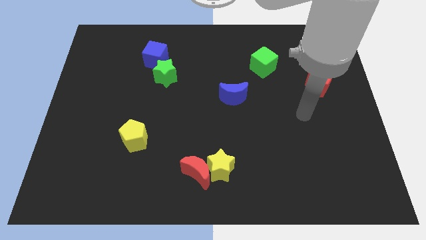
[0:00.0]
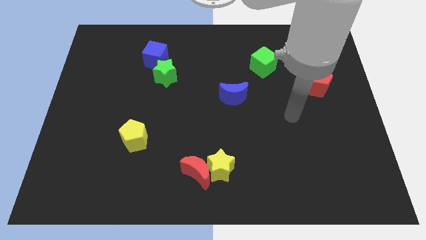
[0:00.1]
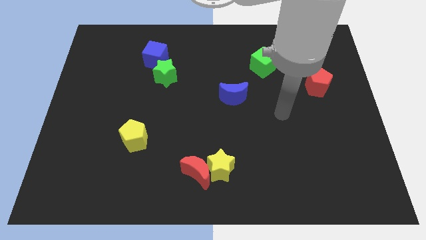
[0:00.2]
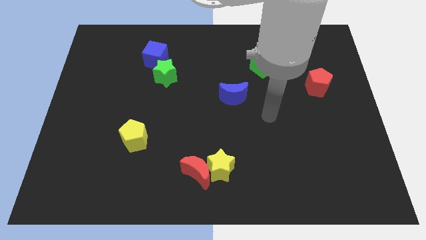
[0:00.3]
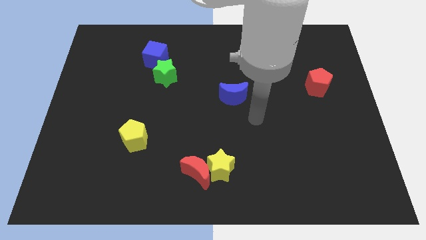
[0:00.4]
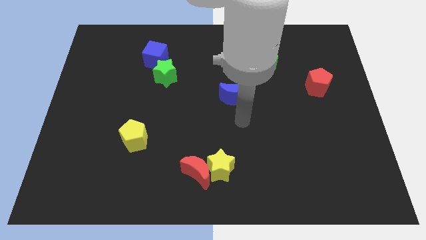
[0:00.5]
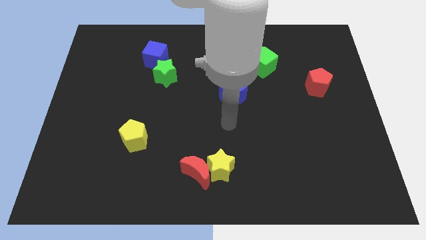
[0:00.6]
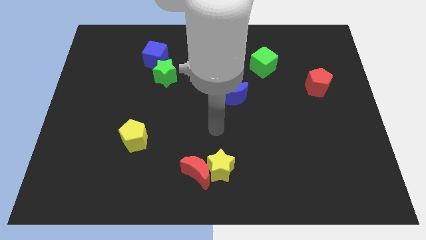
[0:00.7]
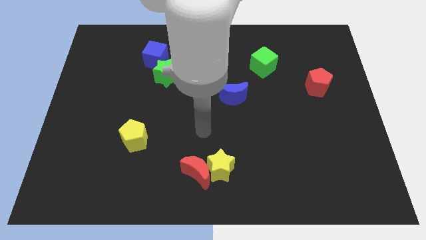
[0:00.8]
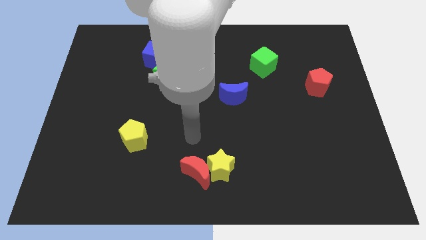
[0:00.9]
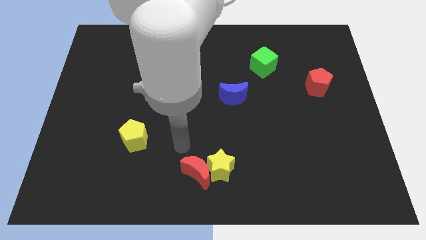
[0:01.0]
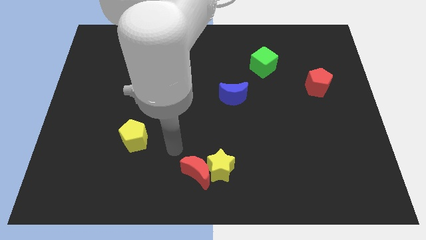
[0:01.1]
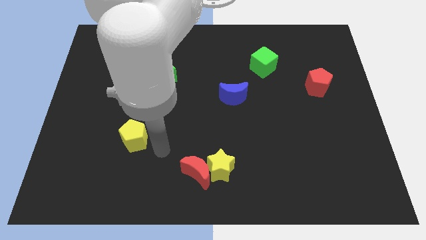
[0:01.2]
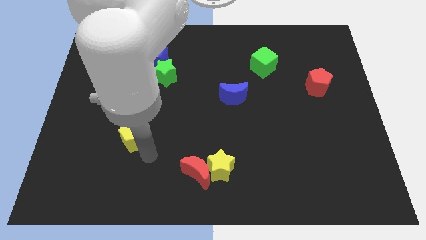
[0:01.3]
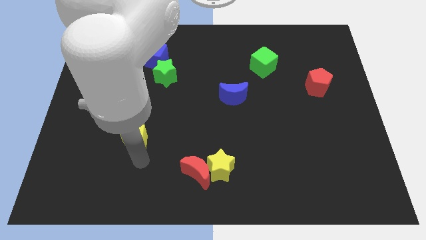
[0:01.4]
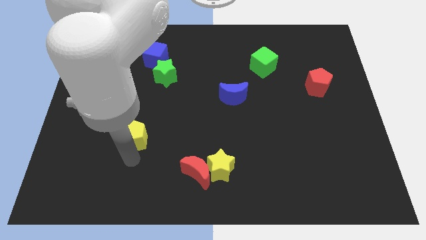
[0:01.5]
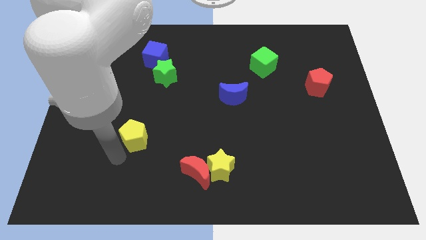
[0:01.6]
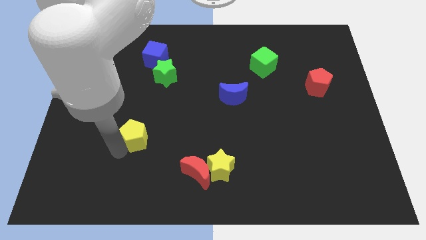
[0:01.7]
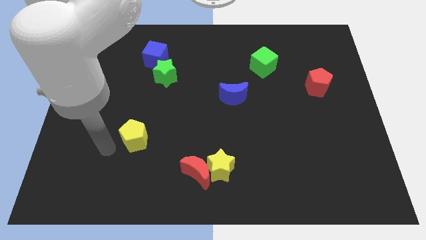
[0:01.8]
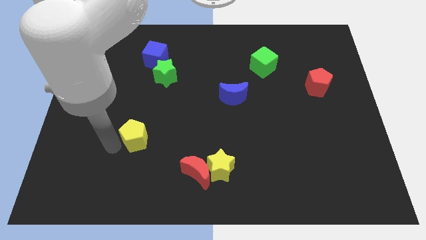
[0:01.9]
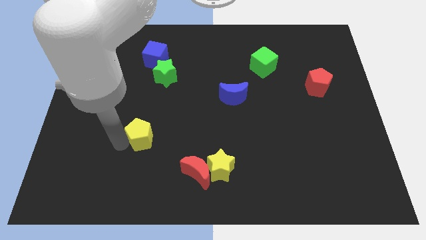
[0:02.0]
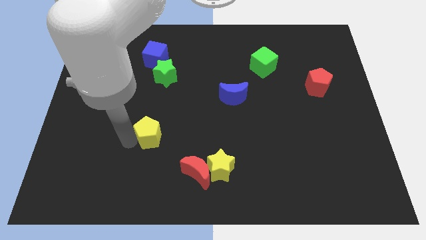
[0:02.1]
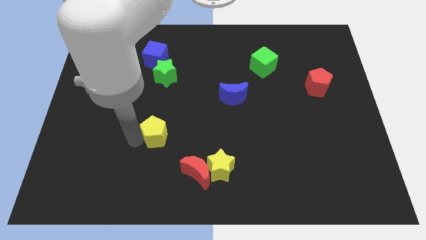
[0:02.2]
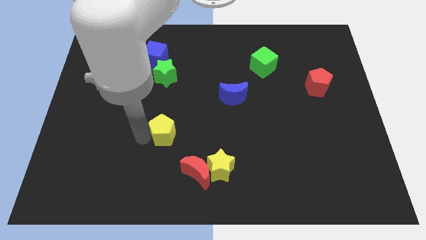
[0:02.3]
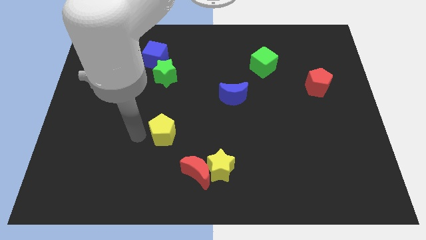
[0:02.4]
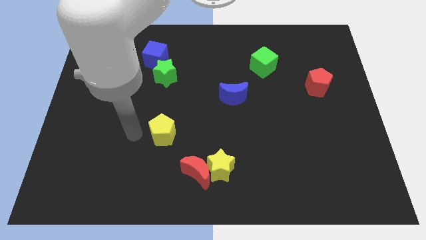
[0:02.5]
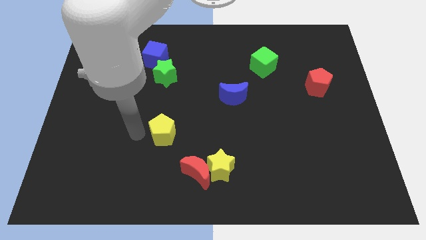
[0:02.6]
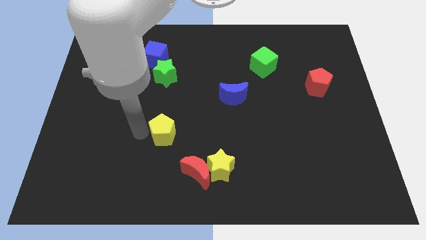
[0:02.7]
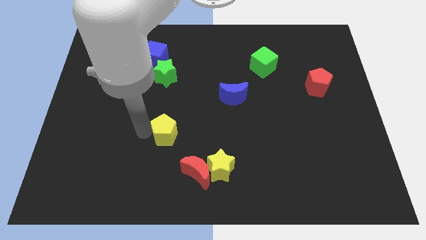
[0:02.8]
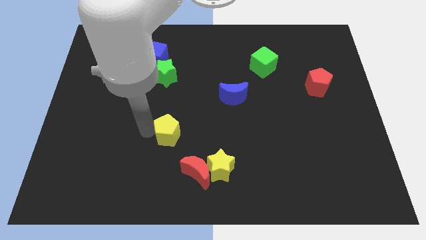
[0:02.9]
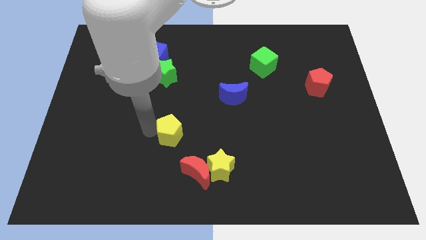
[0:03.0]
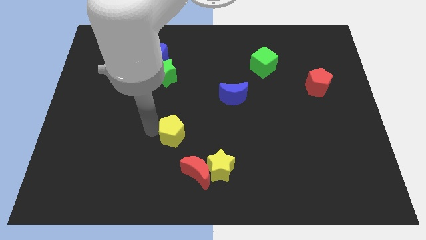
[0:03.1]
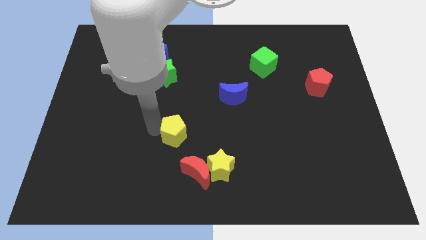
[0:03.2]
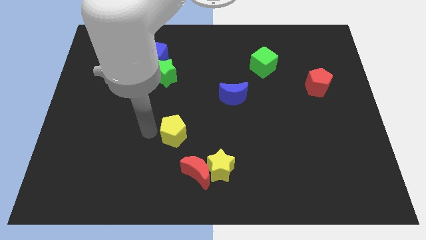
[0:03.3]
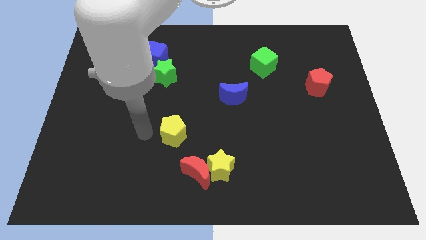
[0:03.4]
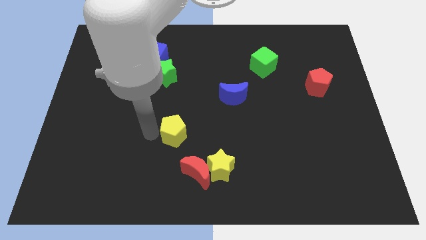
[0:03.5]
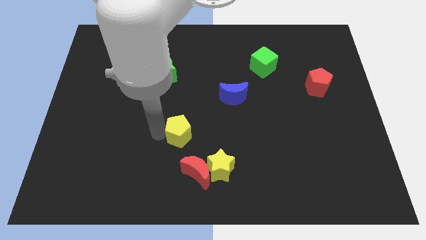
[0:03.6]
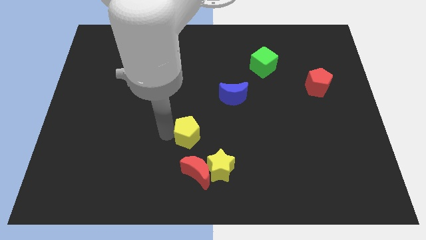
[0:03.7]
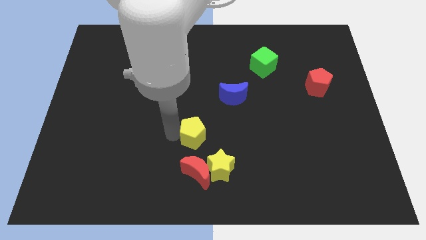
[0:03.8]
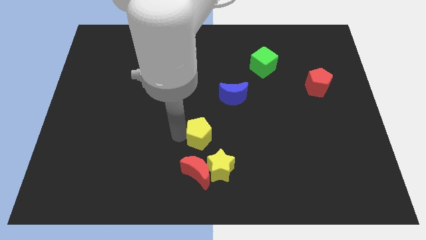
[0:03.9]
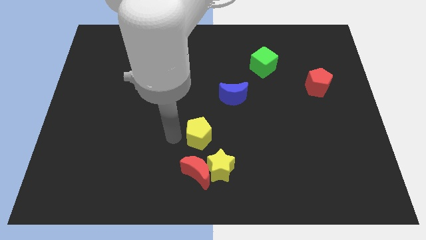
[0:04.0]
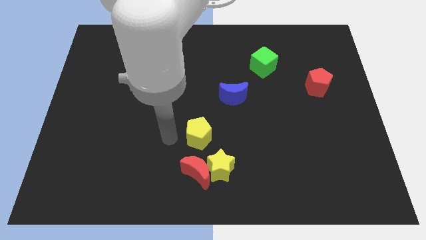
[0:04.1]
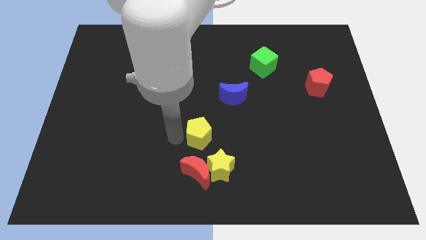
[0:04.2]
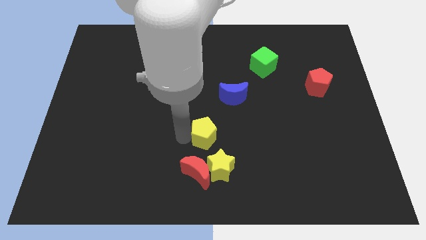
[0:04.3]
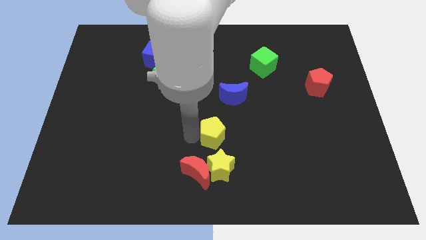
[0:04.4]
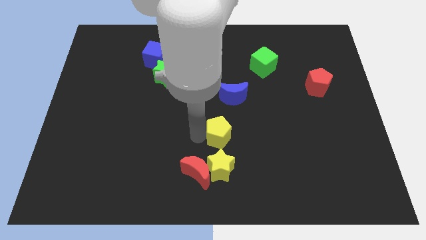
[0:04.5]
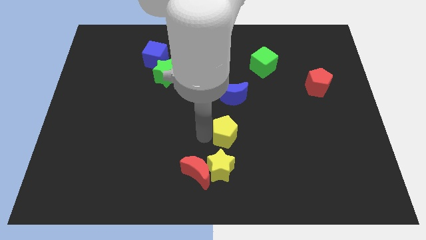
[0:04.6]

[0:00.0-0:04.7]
move the yellow pentagon to the right

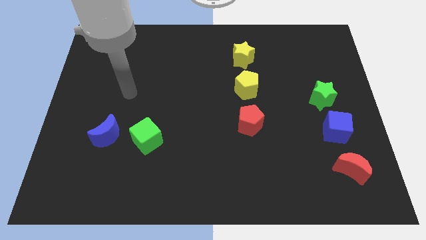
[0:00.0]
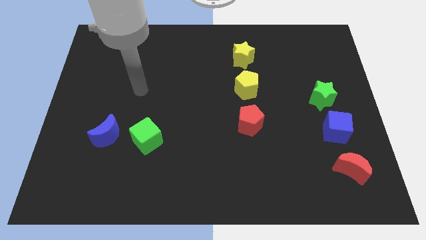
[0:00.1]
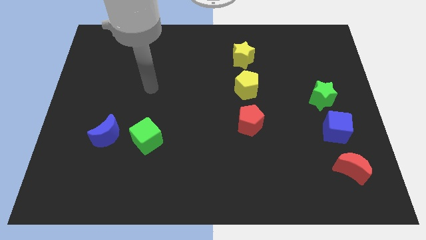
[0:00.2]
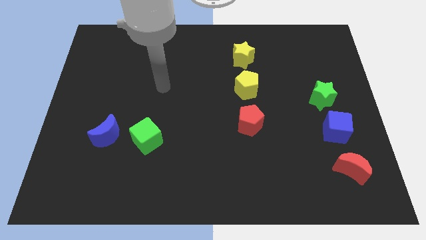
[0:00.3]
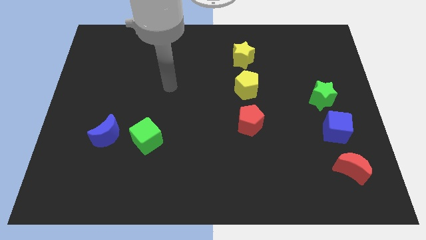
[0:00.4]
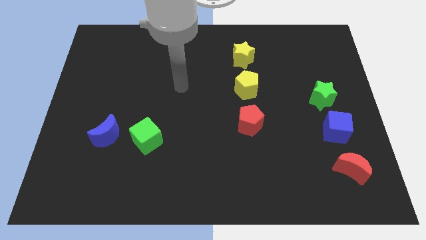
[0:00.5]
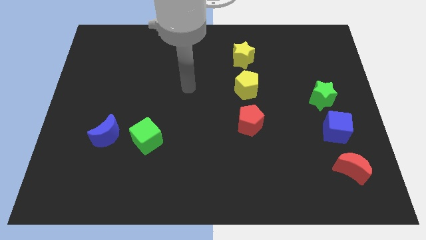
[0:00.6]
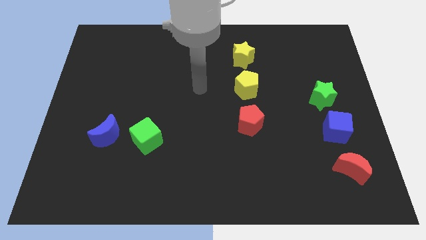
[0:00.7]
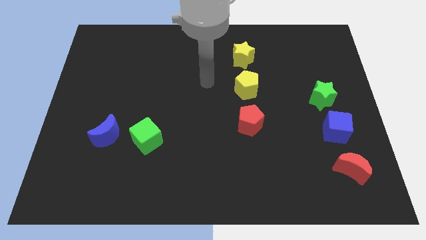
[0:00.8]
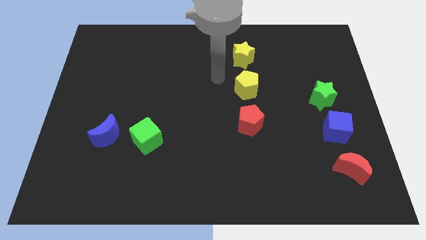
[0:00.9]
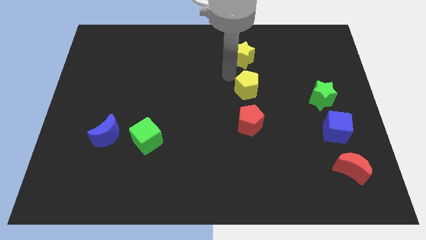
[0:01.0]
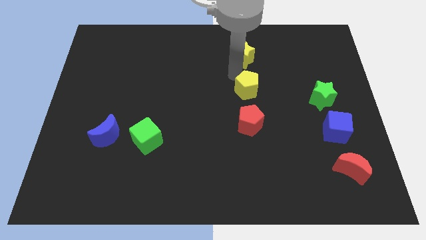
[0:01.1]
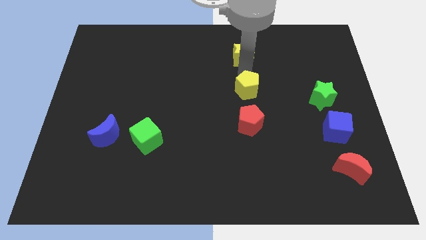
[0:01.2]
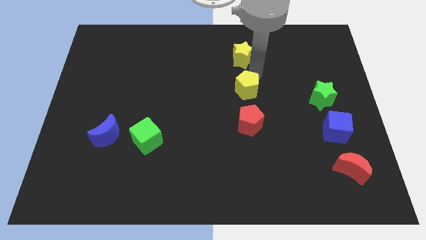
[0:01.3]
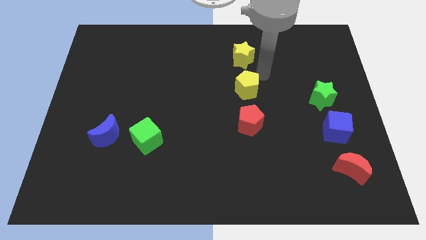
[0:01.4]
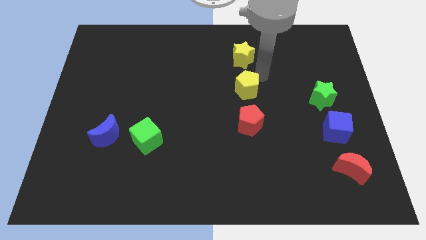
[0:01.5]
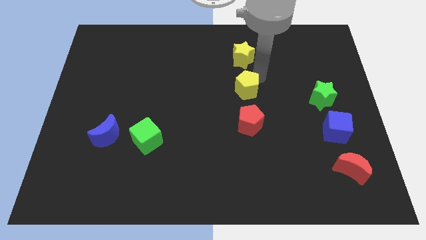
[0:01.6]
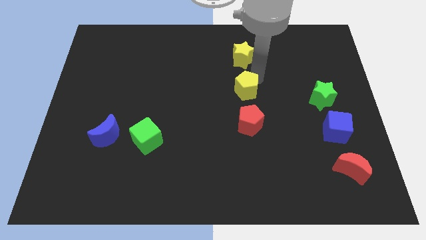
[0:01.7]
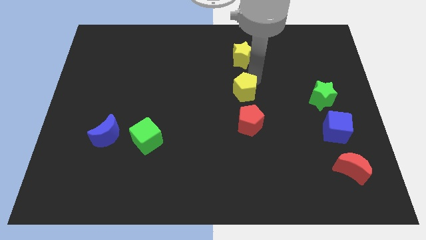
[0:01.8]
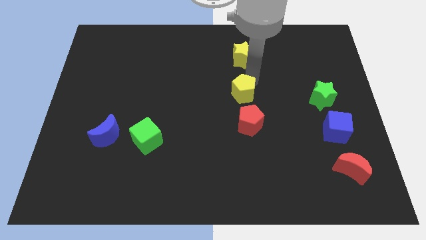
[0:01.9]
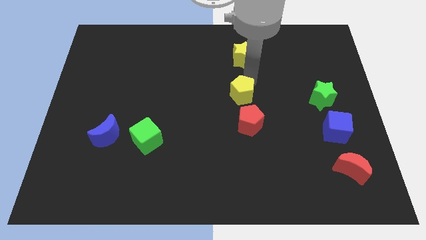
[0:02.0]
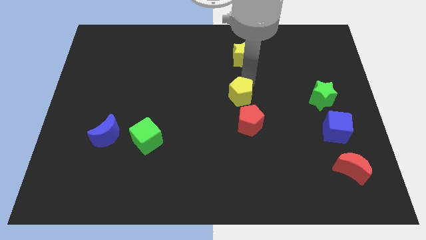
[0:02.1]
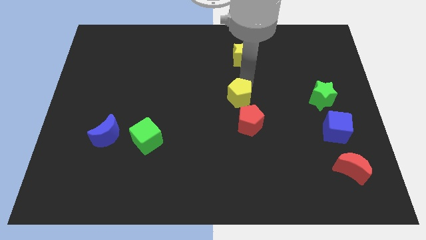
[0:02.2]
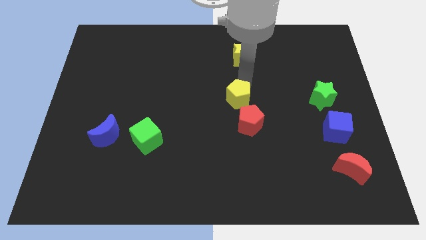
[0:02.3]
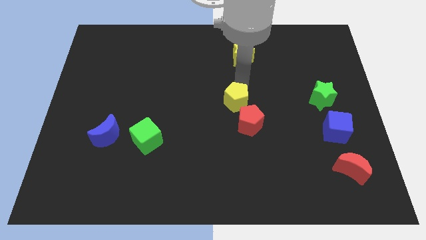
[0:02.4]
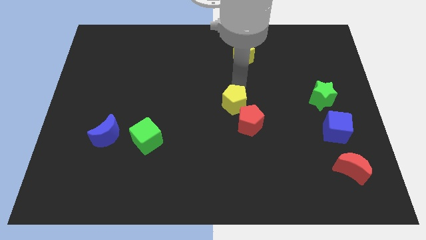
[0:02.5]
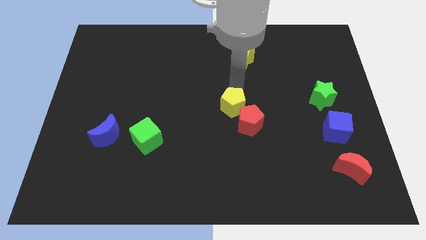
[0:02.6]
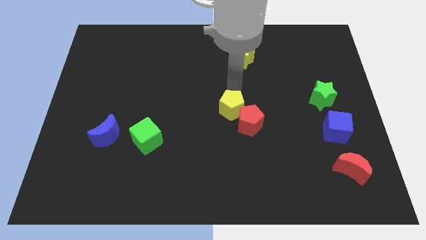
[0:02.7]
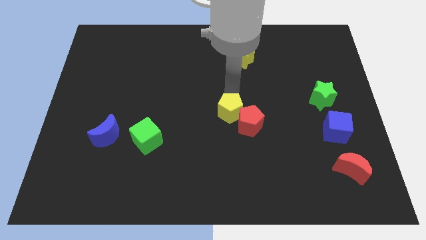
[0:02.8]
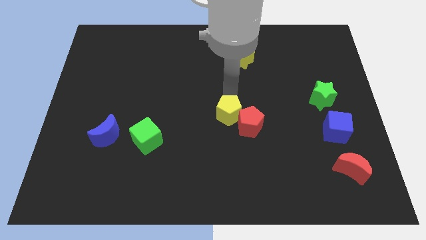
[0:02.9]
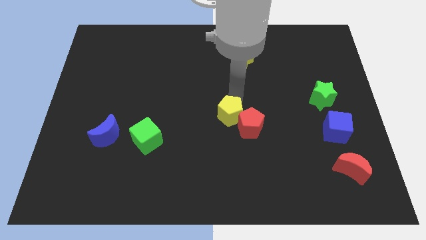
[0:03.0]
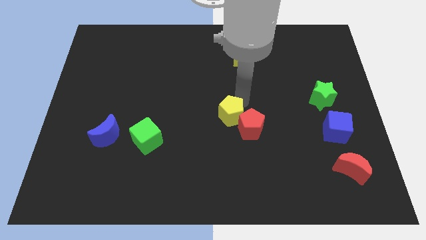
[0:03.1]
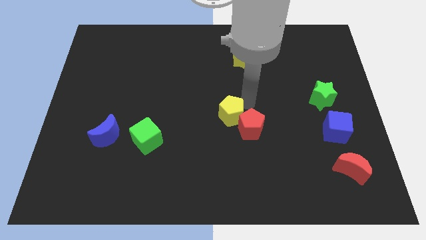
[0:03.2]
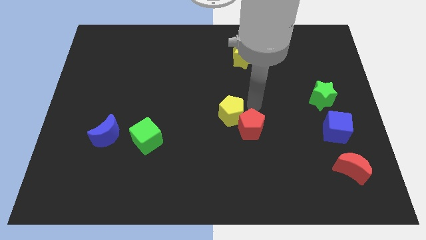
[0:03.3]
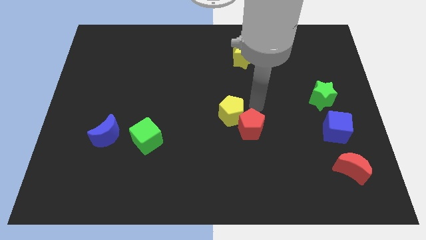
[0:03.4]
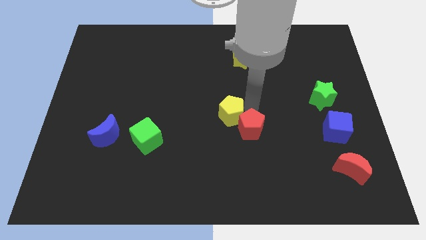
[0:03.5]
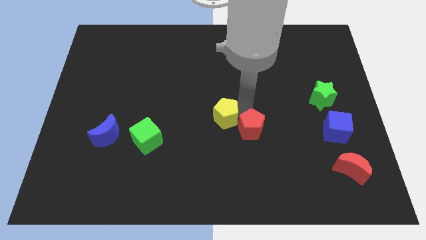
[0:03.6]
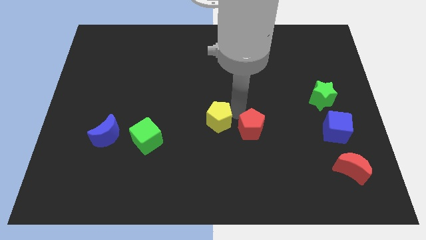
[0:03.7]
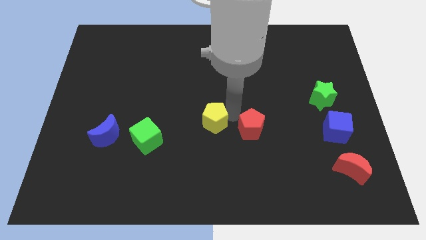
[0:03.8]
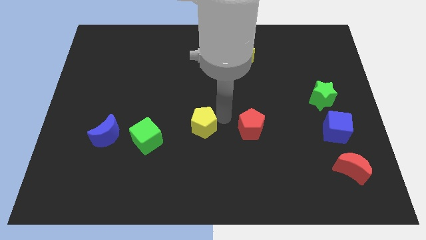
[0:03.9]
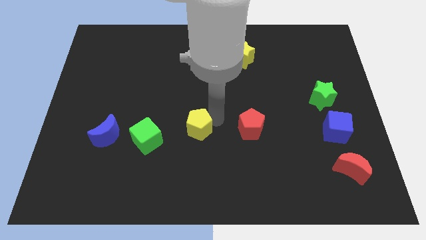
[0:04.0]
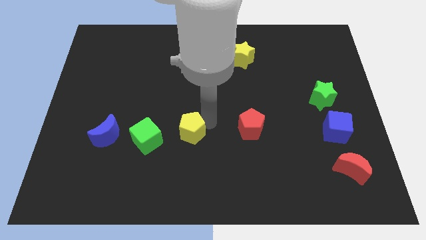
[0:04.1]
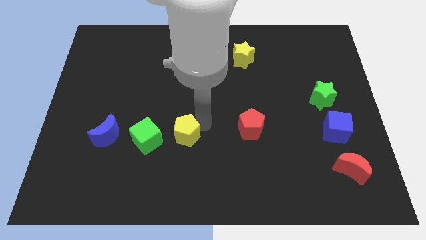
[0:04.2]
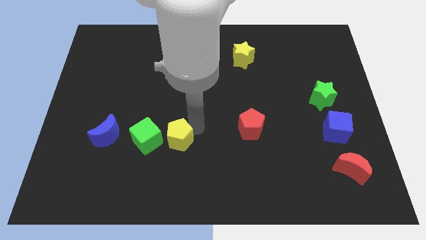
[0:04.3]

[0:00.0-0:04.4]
push the yellow pentagon downwards and then left
